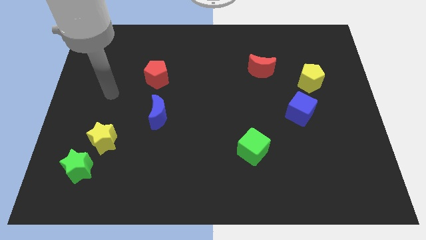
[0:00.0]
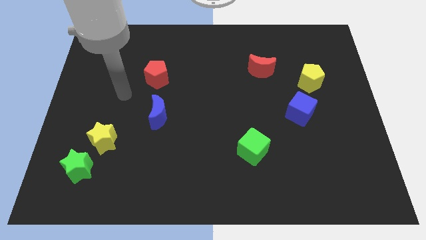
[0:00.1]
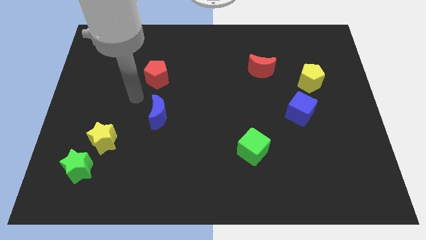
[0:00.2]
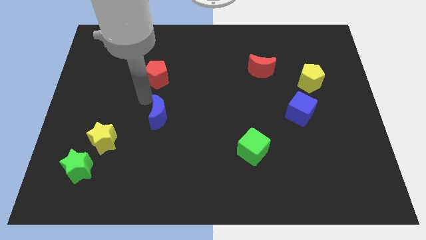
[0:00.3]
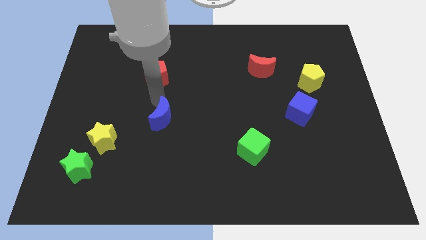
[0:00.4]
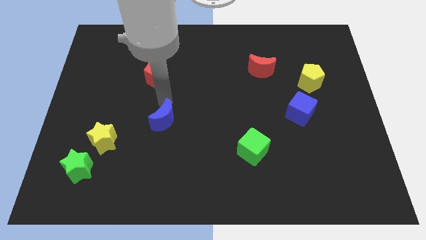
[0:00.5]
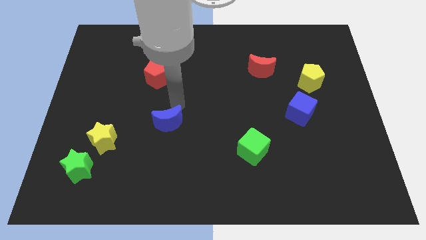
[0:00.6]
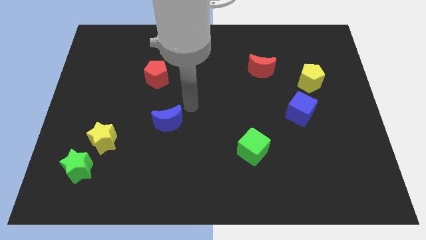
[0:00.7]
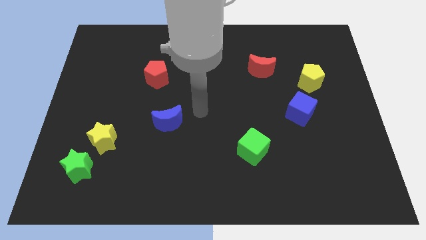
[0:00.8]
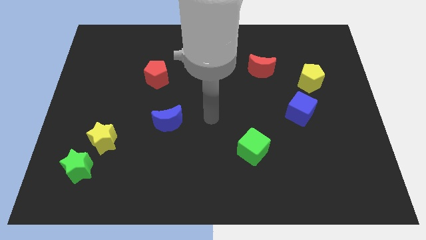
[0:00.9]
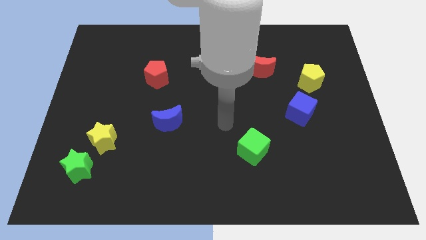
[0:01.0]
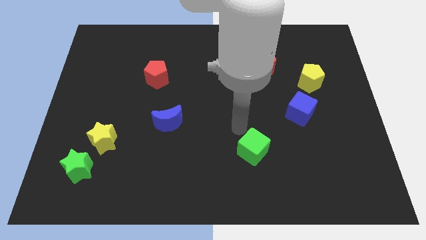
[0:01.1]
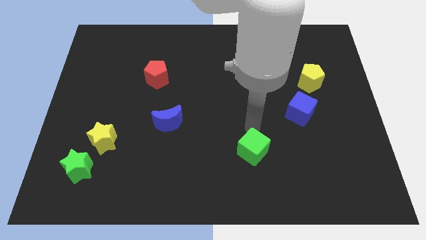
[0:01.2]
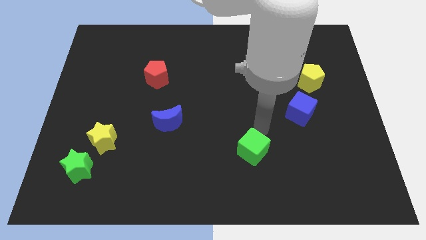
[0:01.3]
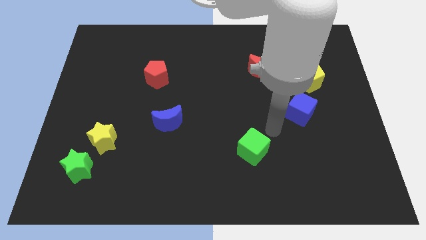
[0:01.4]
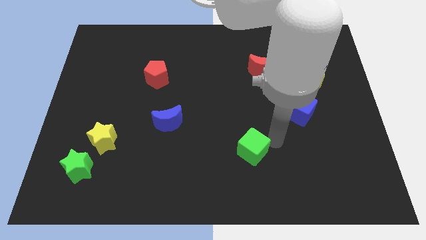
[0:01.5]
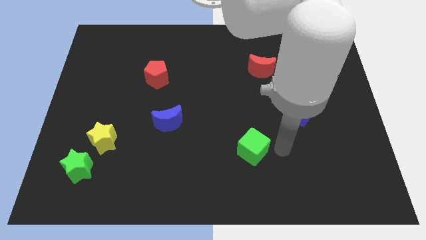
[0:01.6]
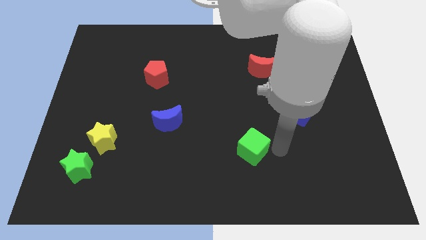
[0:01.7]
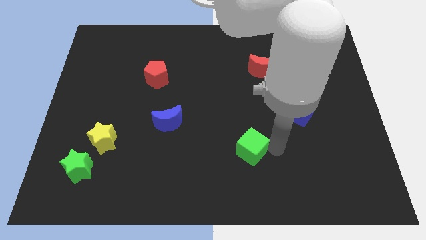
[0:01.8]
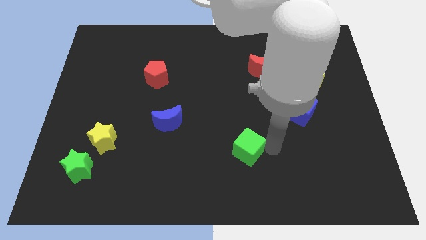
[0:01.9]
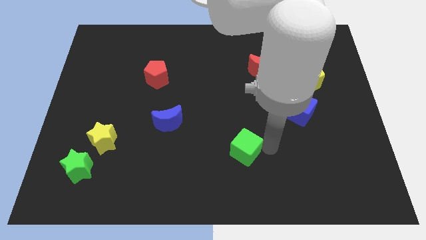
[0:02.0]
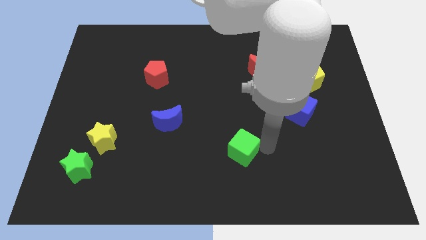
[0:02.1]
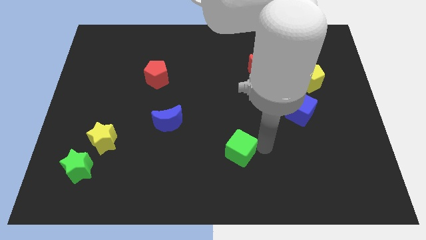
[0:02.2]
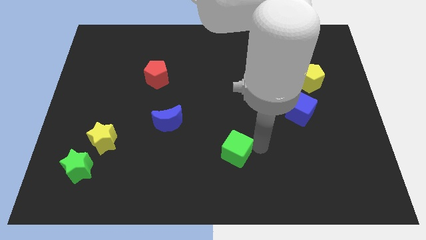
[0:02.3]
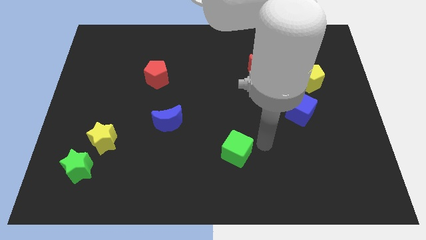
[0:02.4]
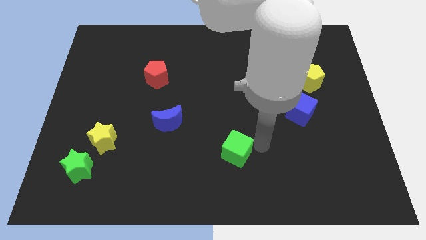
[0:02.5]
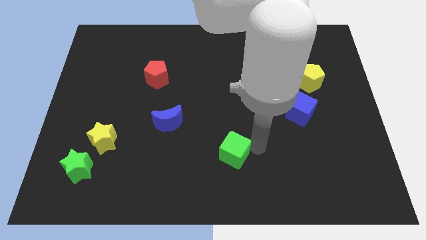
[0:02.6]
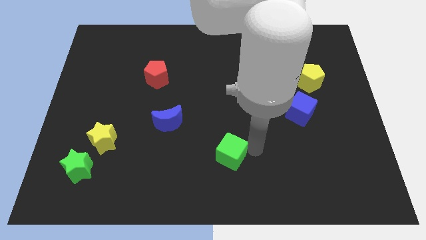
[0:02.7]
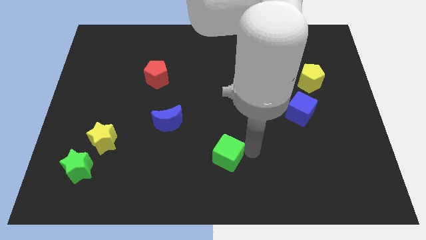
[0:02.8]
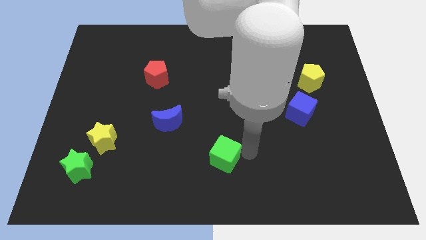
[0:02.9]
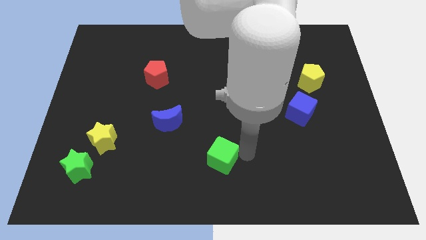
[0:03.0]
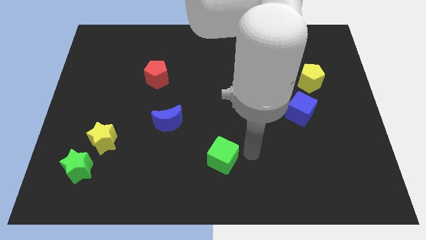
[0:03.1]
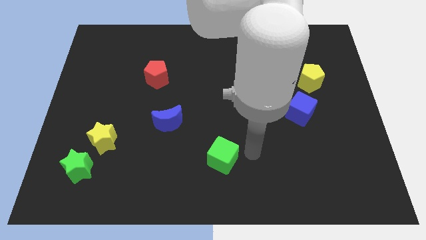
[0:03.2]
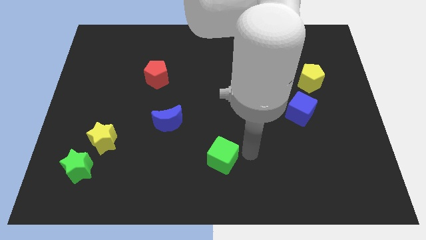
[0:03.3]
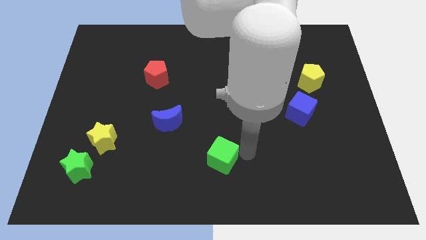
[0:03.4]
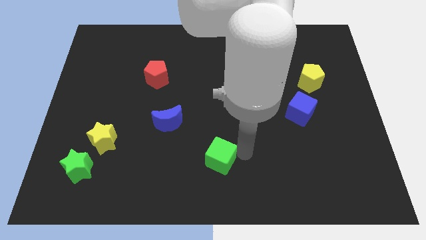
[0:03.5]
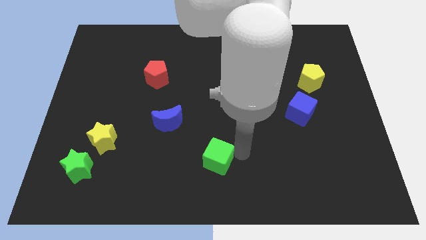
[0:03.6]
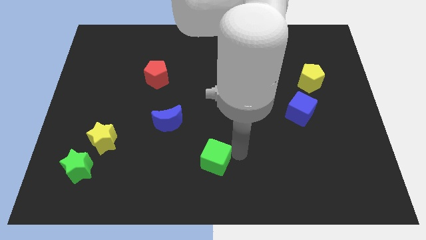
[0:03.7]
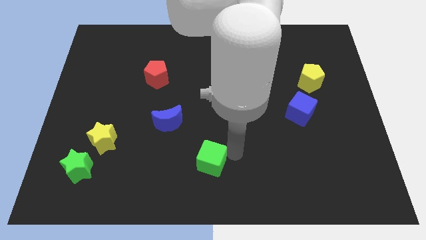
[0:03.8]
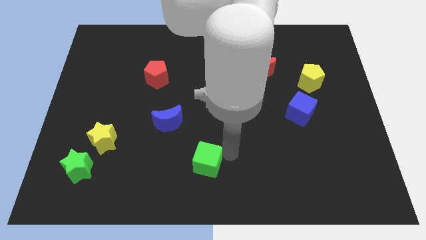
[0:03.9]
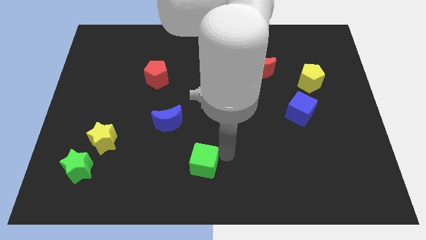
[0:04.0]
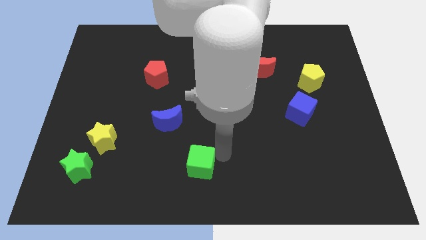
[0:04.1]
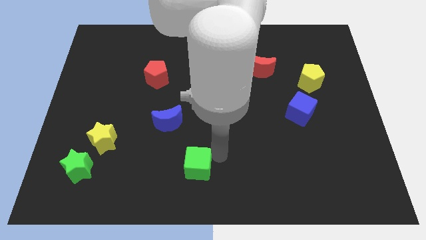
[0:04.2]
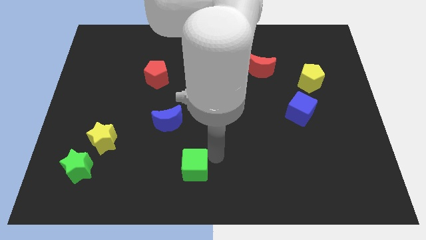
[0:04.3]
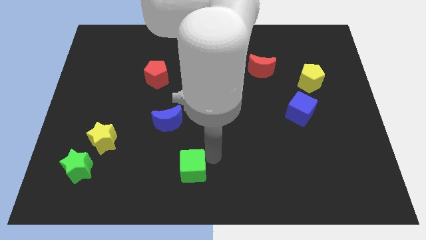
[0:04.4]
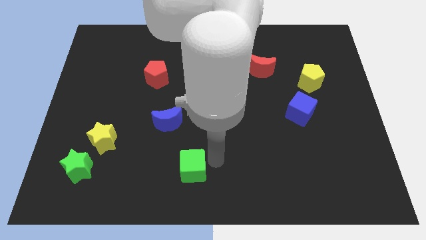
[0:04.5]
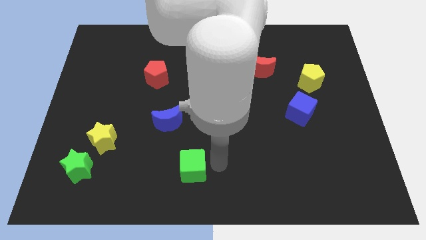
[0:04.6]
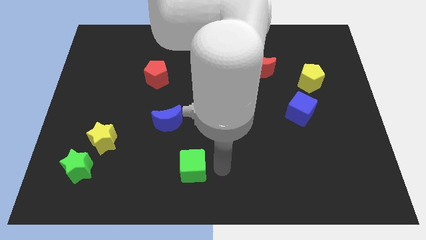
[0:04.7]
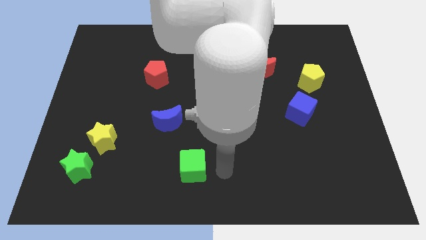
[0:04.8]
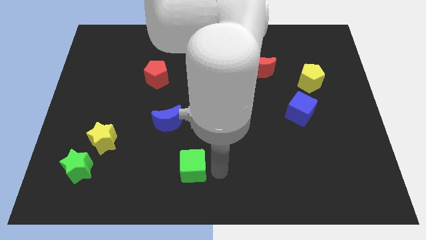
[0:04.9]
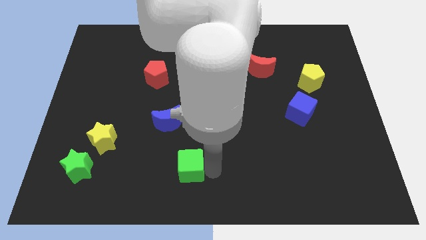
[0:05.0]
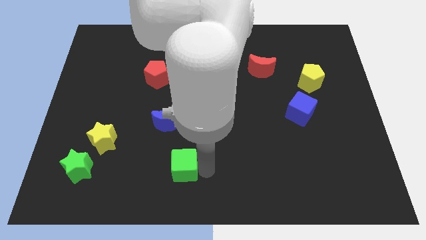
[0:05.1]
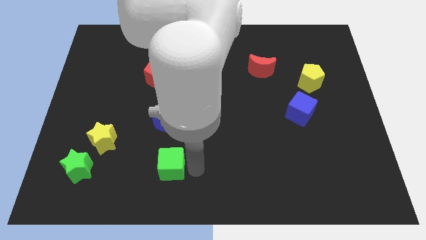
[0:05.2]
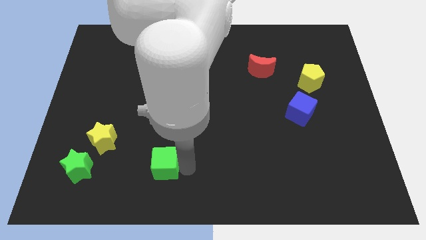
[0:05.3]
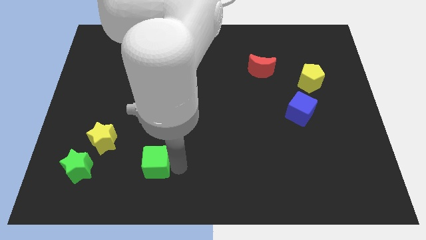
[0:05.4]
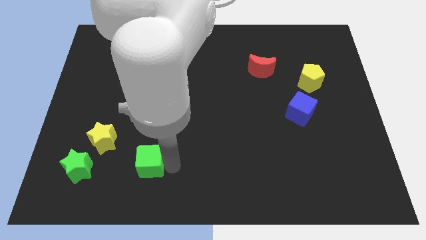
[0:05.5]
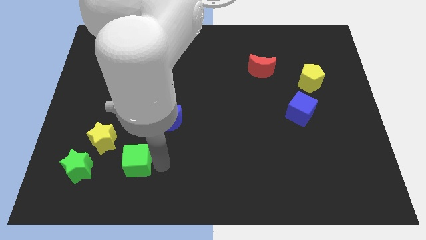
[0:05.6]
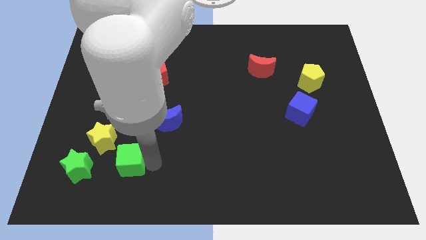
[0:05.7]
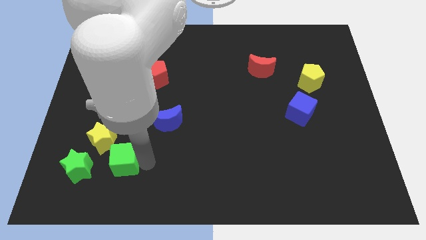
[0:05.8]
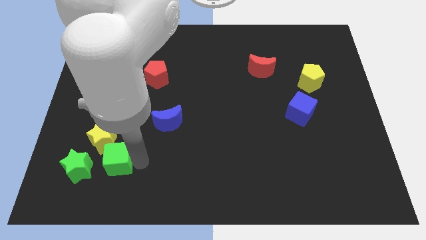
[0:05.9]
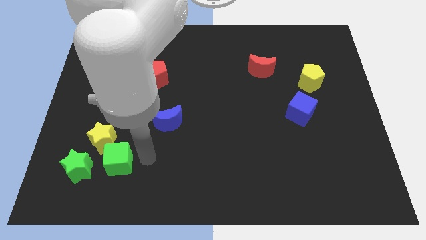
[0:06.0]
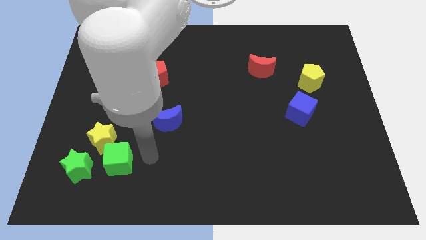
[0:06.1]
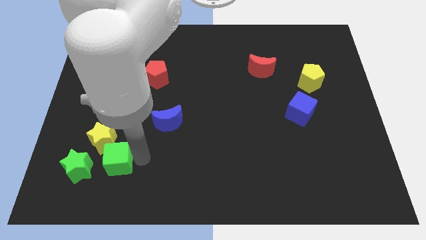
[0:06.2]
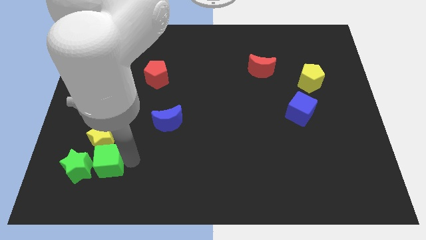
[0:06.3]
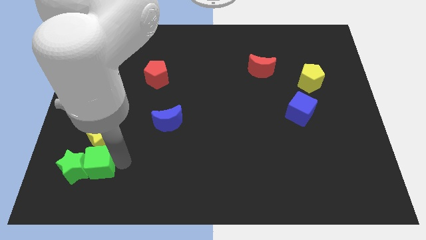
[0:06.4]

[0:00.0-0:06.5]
put the green cube towards the green star

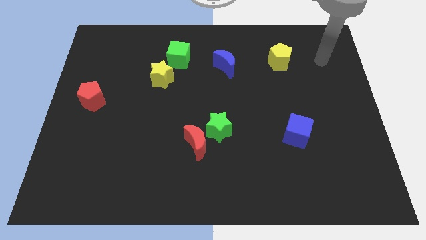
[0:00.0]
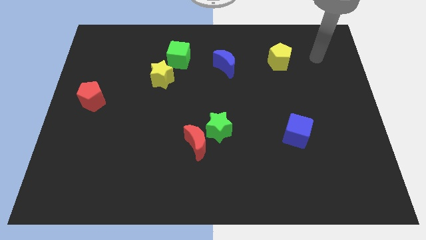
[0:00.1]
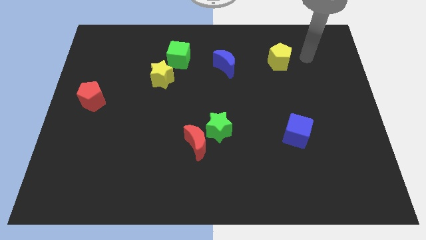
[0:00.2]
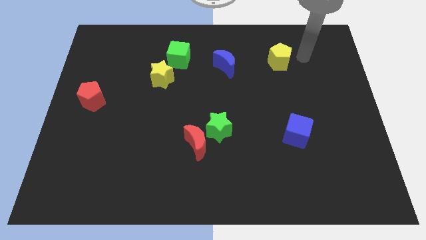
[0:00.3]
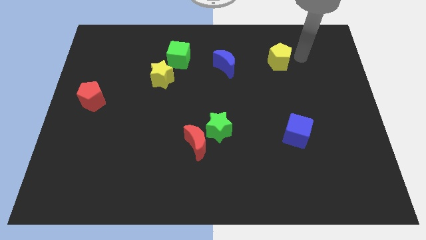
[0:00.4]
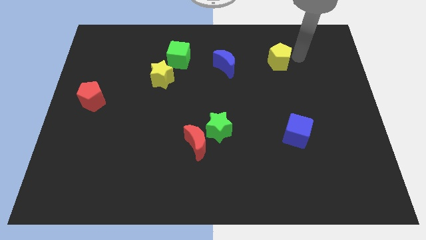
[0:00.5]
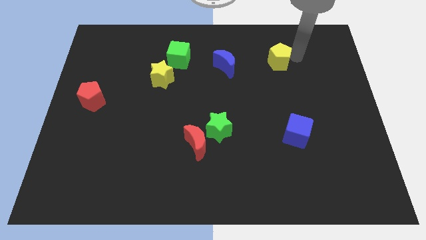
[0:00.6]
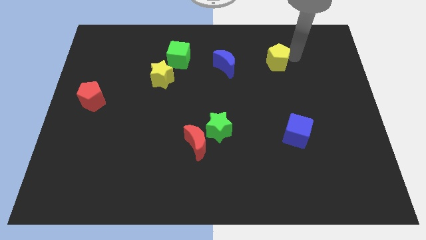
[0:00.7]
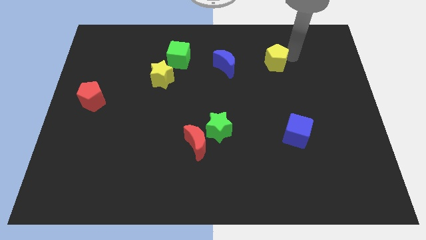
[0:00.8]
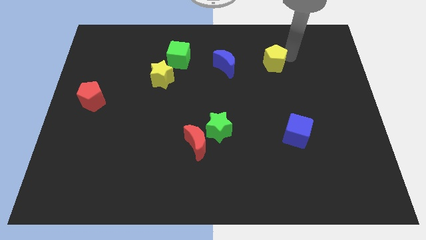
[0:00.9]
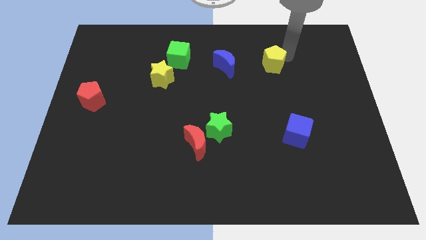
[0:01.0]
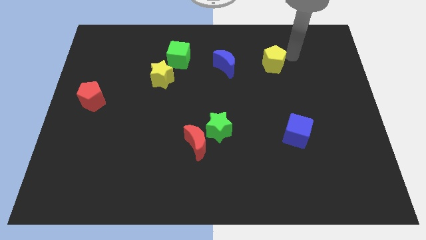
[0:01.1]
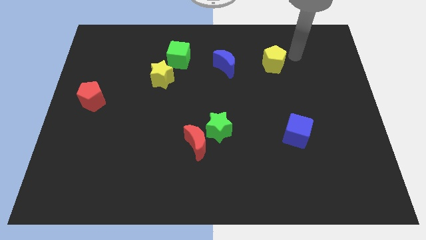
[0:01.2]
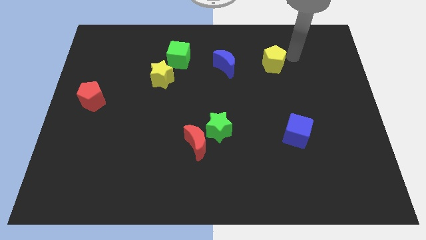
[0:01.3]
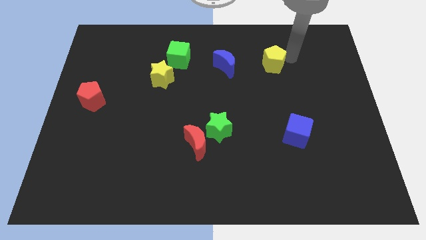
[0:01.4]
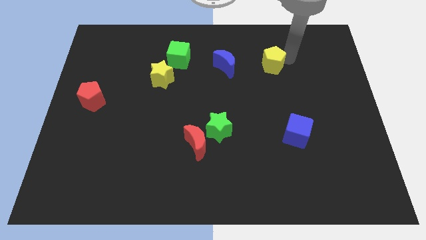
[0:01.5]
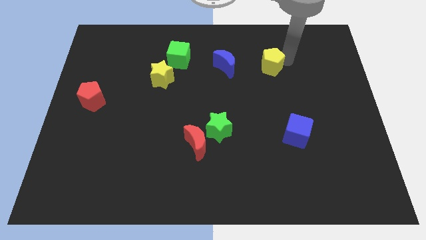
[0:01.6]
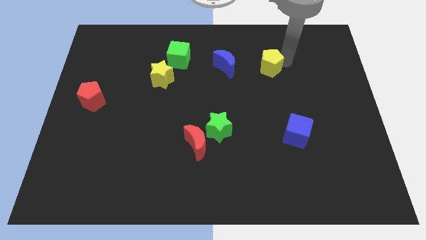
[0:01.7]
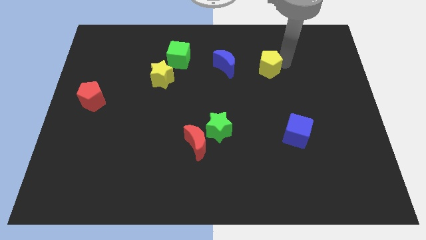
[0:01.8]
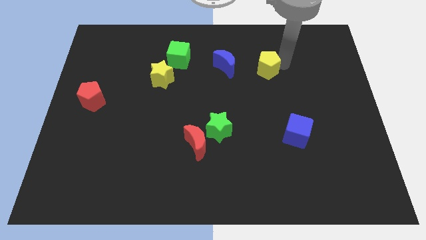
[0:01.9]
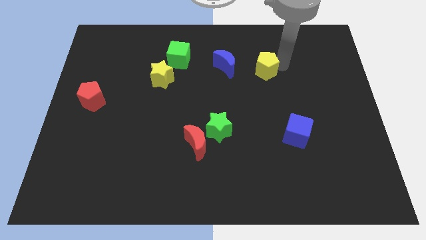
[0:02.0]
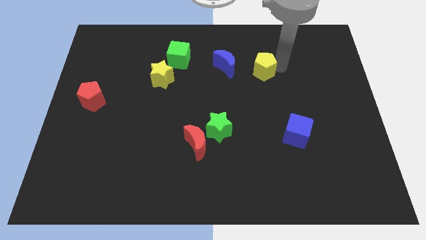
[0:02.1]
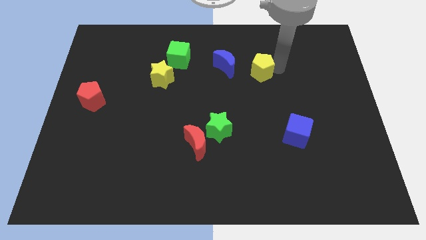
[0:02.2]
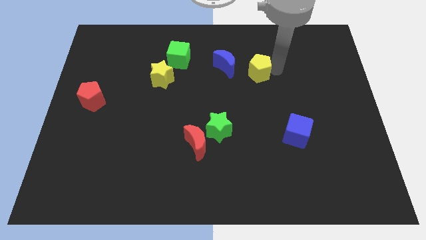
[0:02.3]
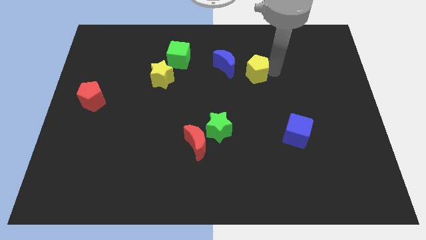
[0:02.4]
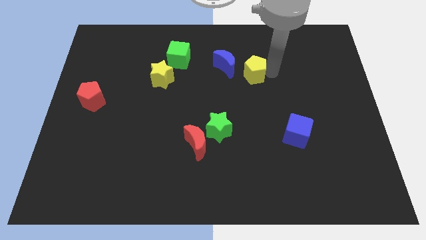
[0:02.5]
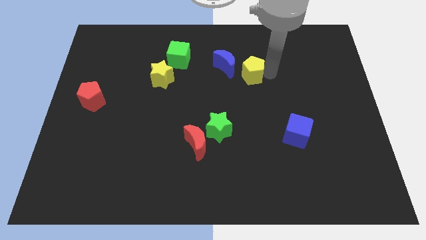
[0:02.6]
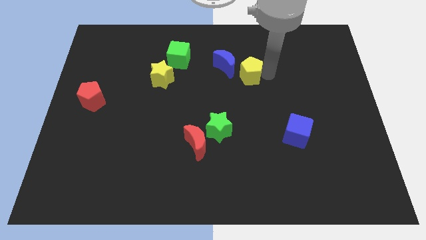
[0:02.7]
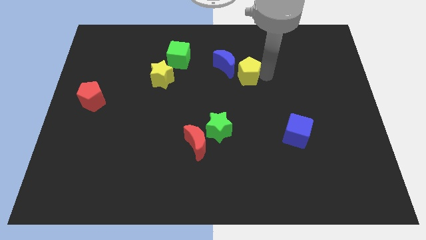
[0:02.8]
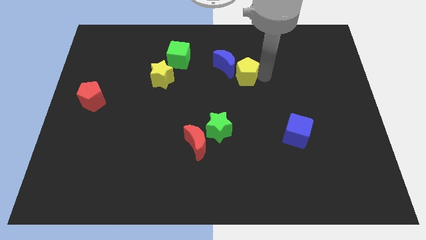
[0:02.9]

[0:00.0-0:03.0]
push the yellow pentagon next to the blue moon
